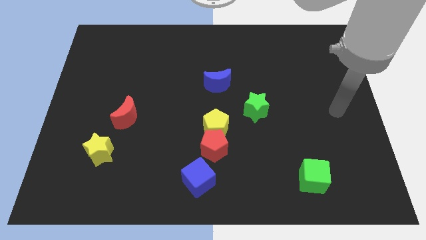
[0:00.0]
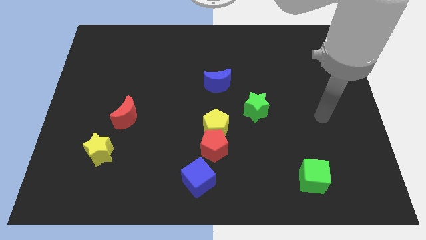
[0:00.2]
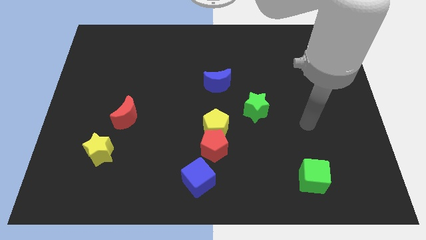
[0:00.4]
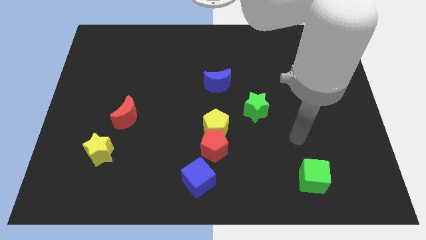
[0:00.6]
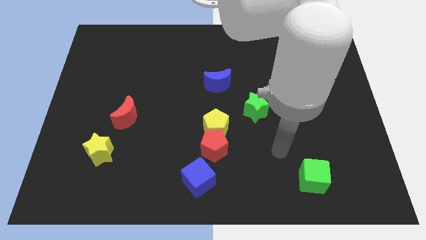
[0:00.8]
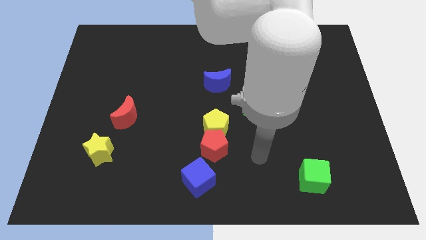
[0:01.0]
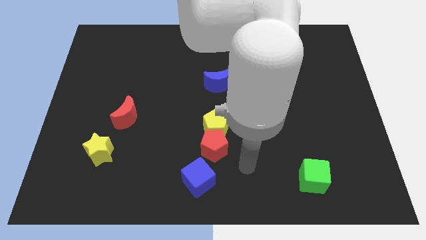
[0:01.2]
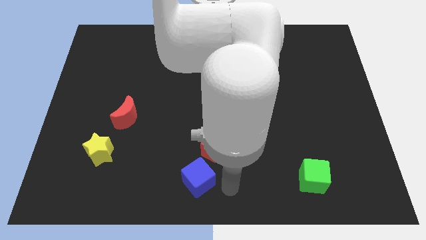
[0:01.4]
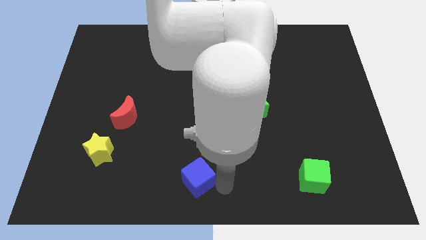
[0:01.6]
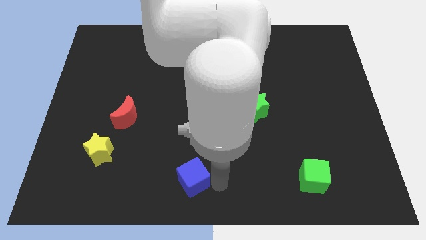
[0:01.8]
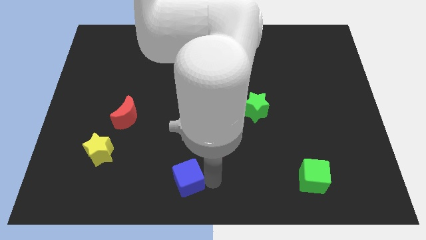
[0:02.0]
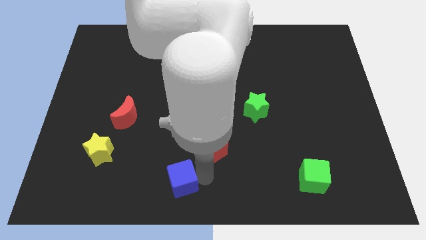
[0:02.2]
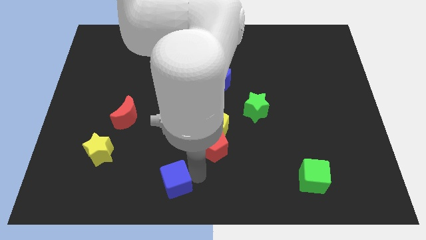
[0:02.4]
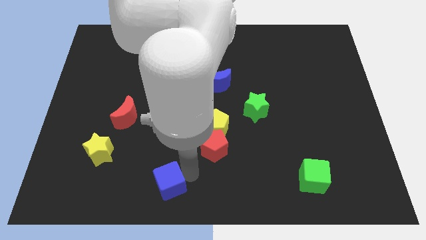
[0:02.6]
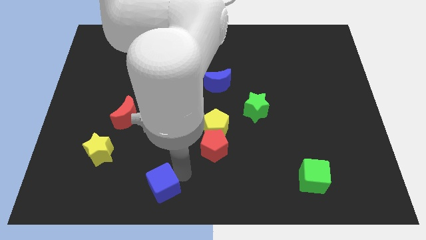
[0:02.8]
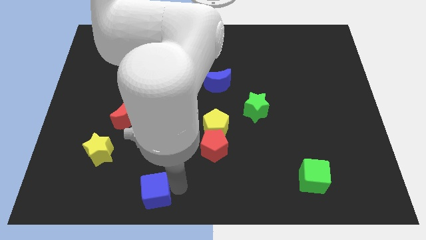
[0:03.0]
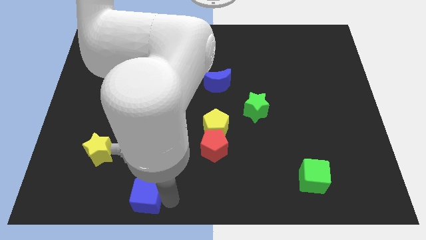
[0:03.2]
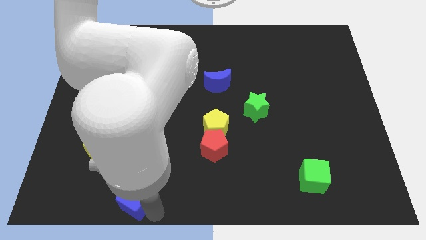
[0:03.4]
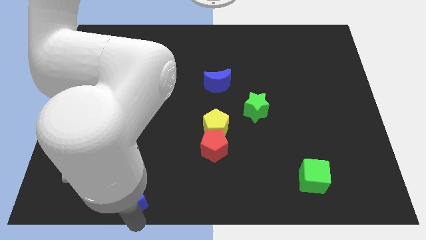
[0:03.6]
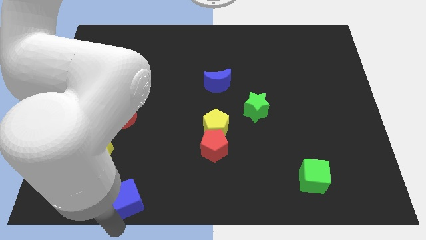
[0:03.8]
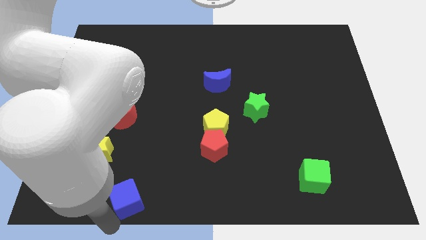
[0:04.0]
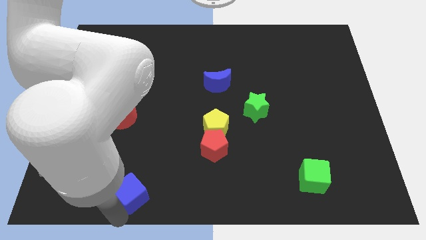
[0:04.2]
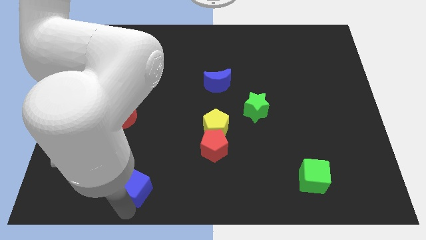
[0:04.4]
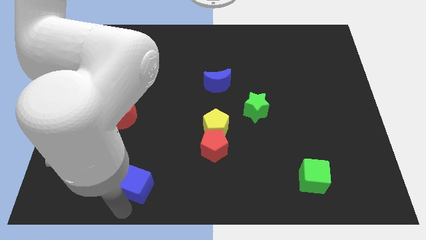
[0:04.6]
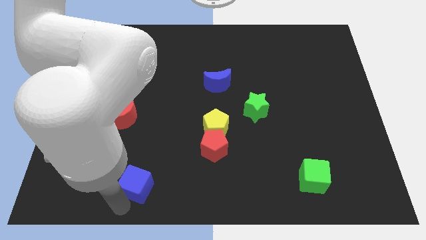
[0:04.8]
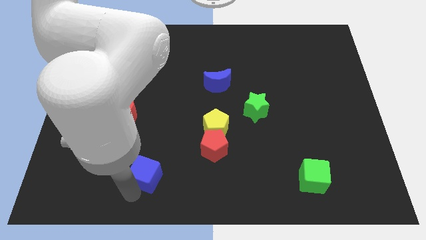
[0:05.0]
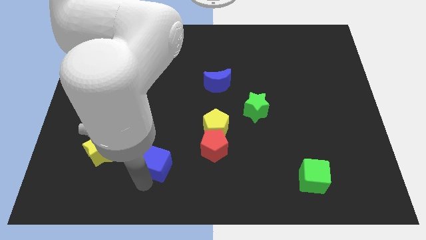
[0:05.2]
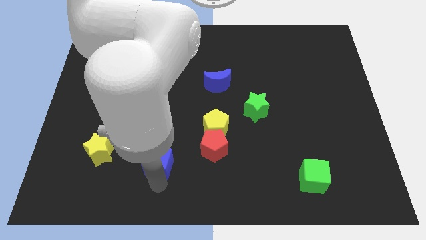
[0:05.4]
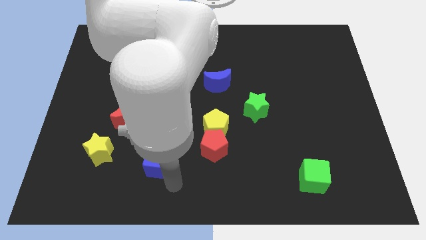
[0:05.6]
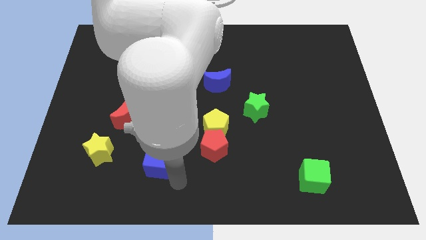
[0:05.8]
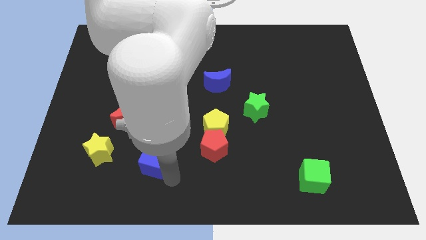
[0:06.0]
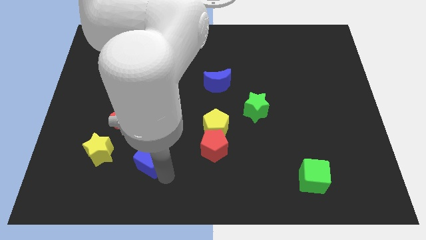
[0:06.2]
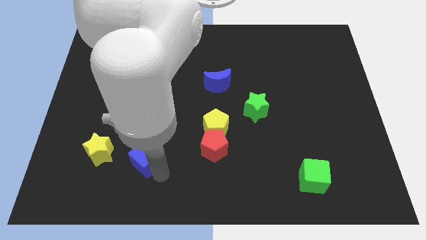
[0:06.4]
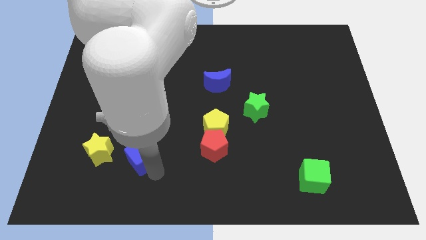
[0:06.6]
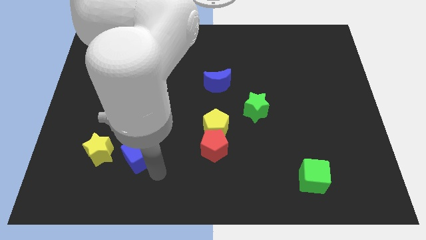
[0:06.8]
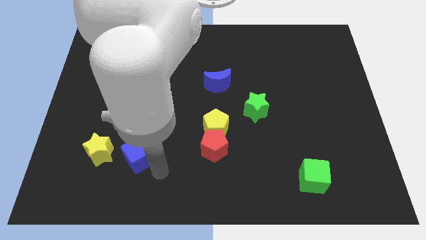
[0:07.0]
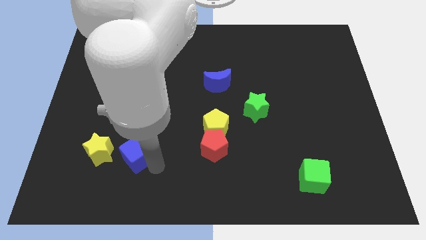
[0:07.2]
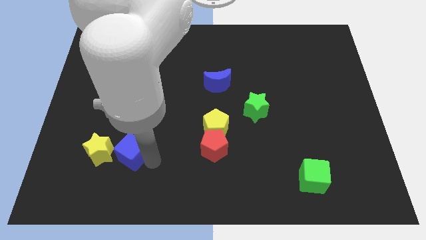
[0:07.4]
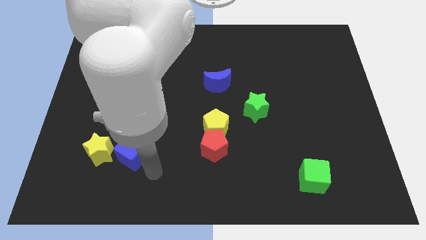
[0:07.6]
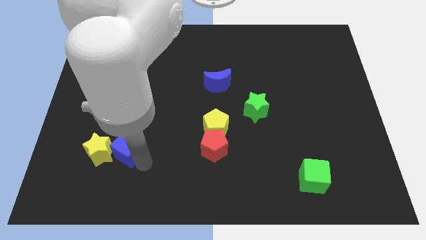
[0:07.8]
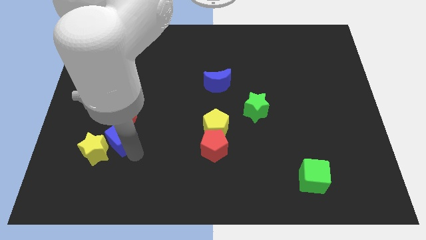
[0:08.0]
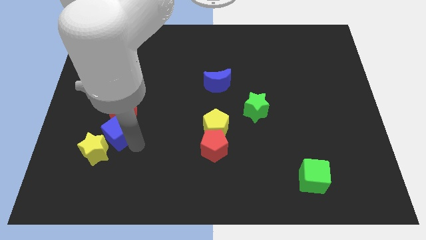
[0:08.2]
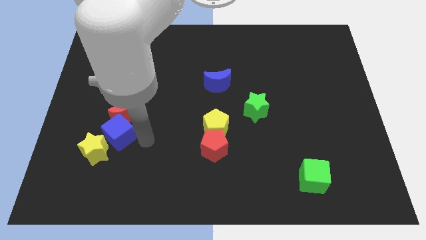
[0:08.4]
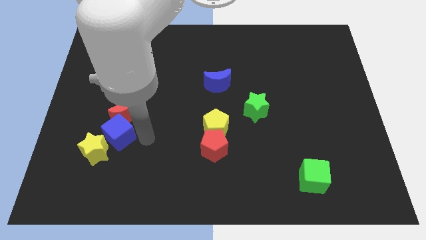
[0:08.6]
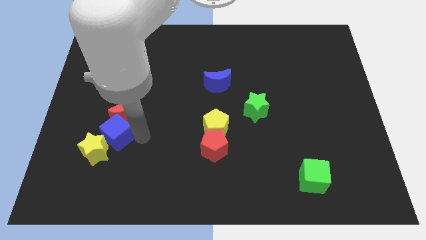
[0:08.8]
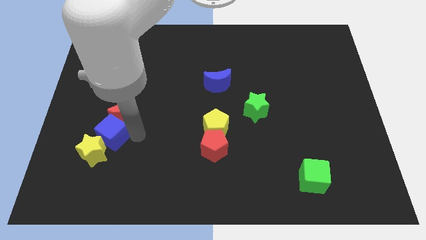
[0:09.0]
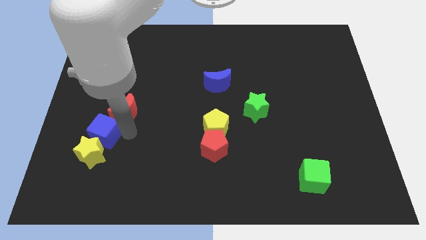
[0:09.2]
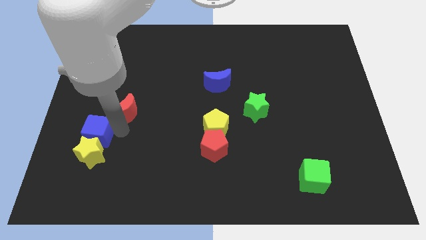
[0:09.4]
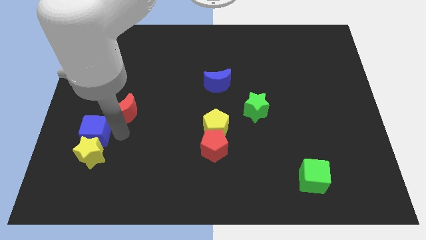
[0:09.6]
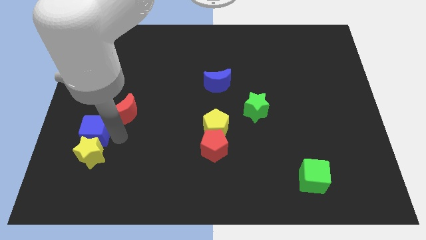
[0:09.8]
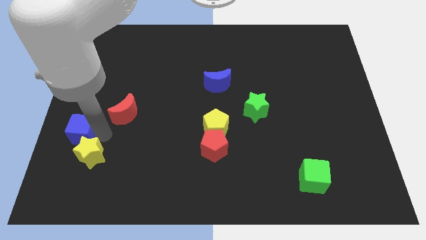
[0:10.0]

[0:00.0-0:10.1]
move the blue cube to the left side of the board

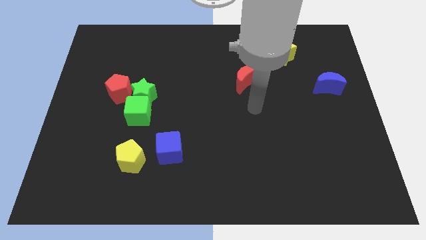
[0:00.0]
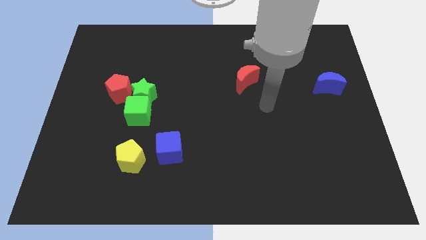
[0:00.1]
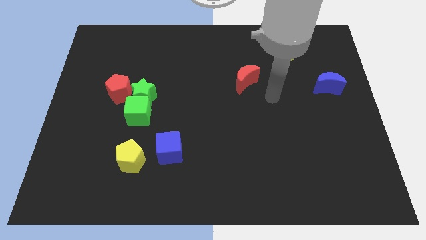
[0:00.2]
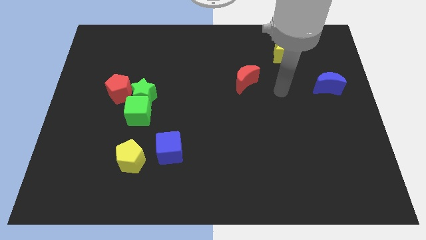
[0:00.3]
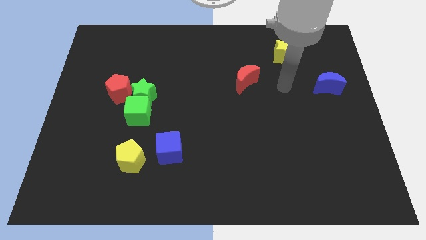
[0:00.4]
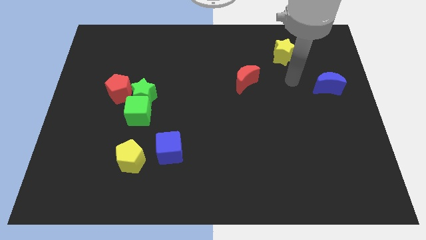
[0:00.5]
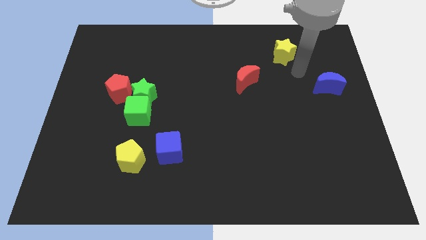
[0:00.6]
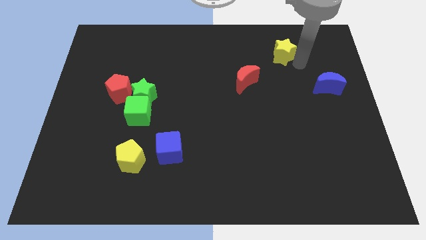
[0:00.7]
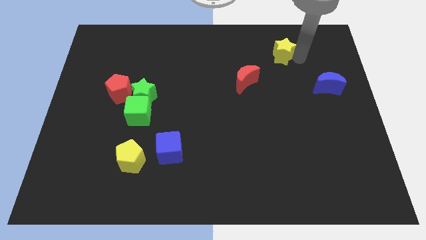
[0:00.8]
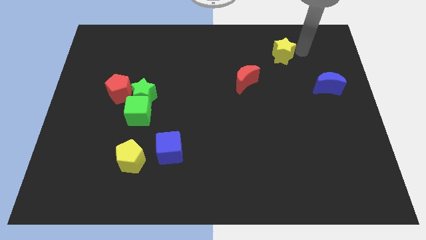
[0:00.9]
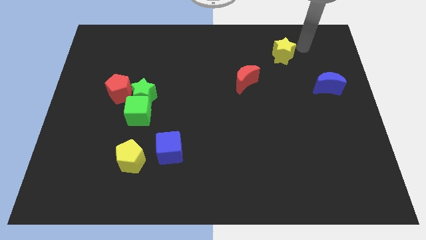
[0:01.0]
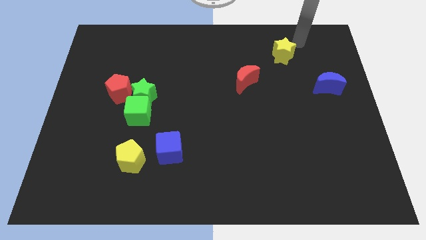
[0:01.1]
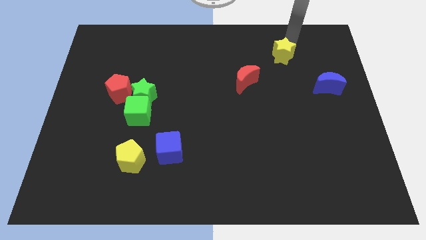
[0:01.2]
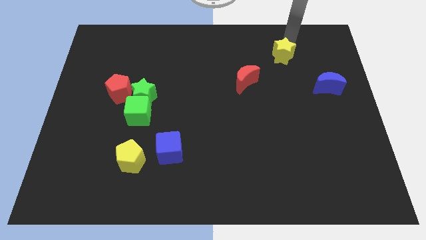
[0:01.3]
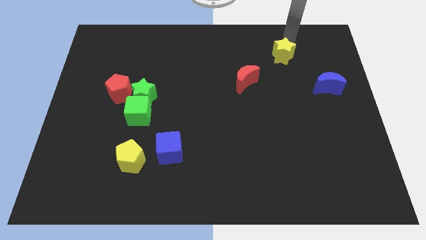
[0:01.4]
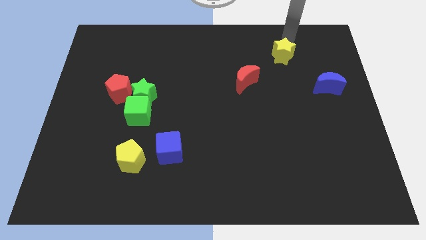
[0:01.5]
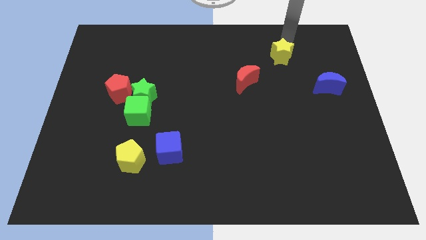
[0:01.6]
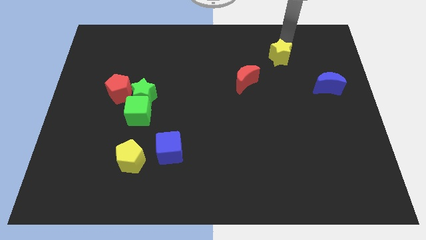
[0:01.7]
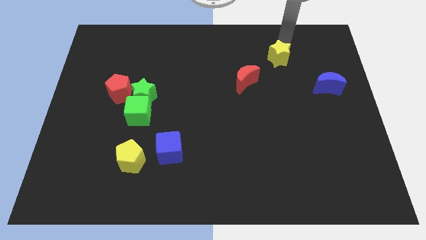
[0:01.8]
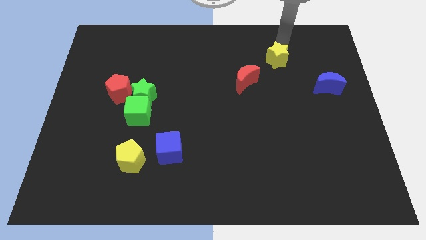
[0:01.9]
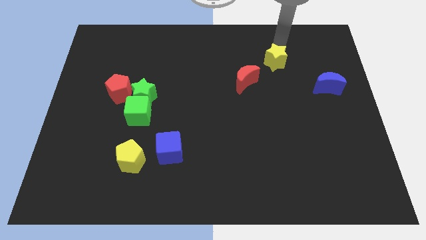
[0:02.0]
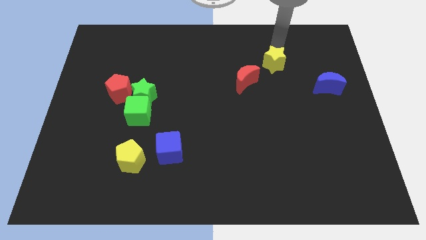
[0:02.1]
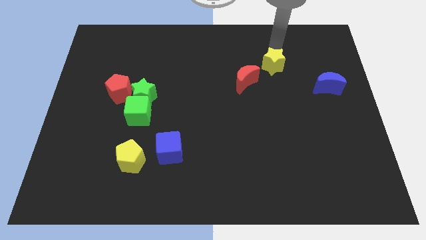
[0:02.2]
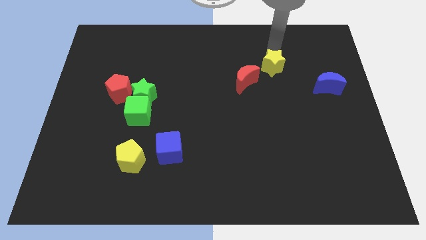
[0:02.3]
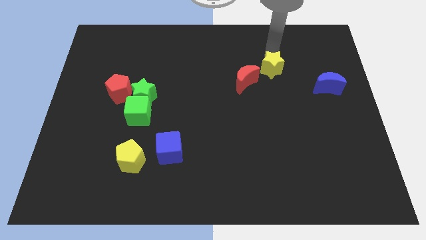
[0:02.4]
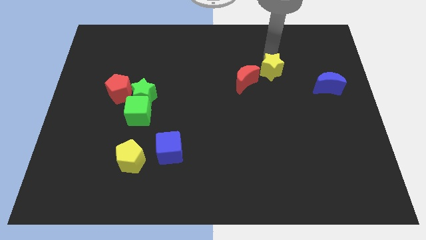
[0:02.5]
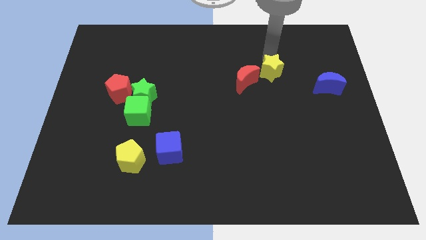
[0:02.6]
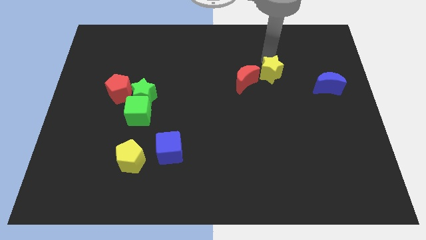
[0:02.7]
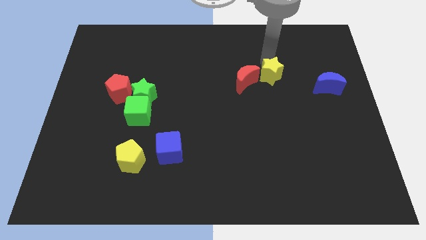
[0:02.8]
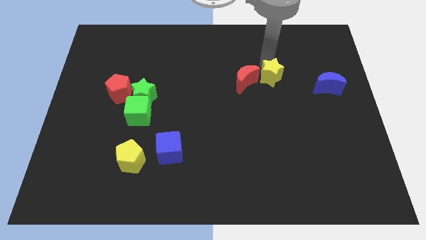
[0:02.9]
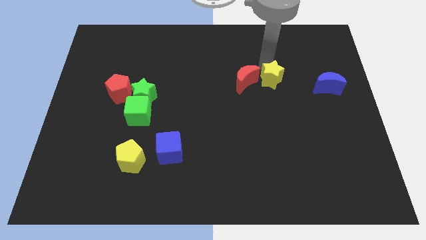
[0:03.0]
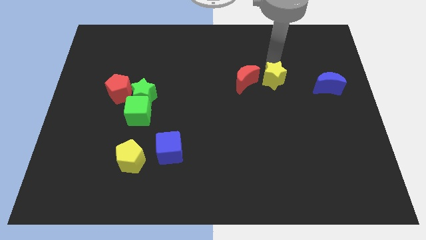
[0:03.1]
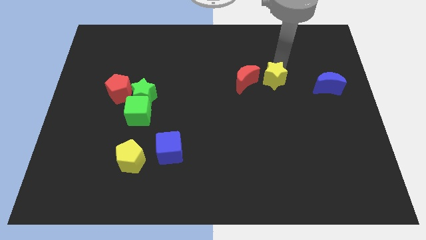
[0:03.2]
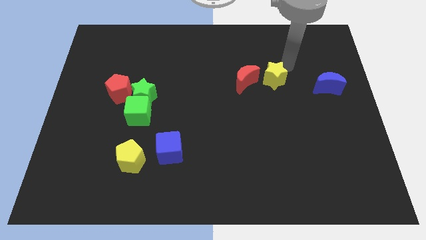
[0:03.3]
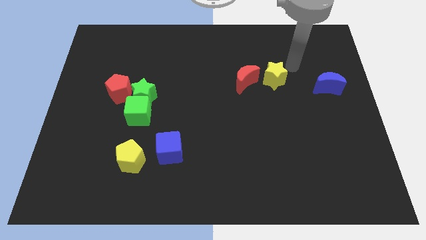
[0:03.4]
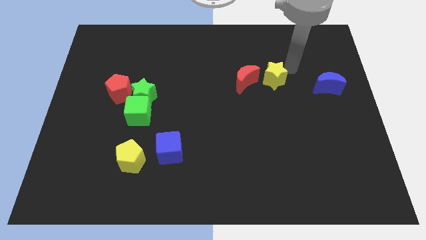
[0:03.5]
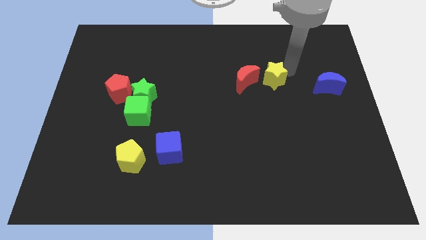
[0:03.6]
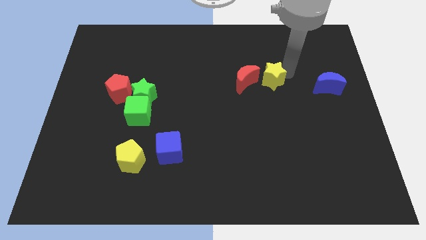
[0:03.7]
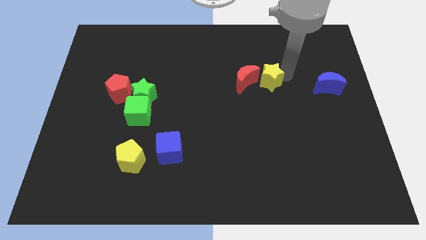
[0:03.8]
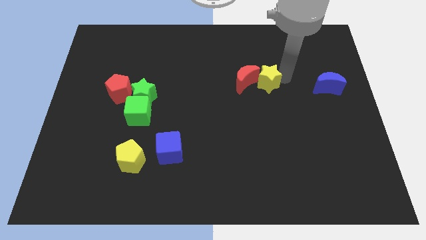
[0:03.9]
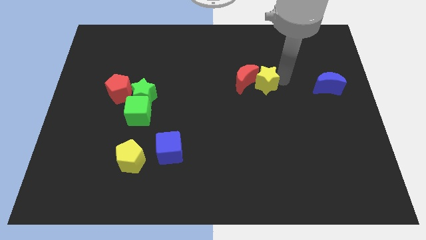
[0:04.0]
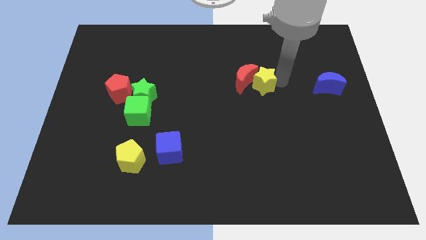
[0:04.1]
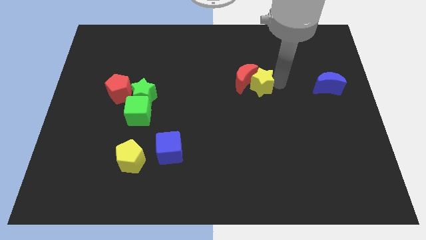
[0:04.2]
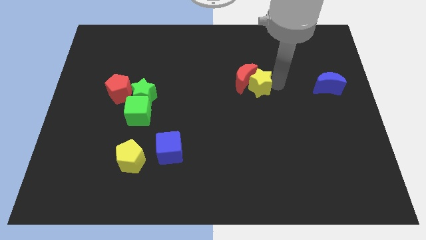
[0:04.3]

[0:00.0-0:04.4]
push the yellow star to the center of the board
